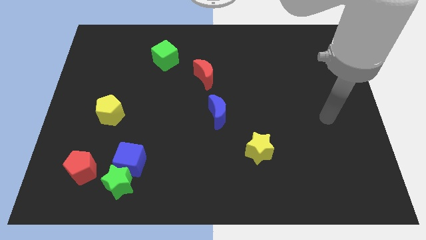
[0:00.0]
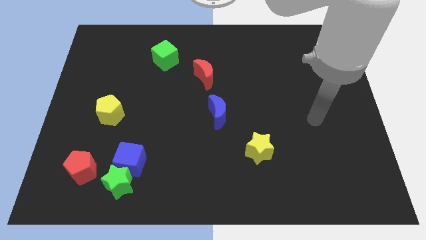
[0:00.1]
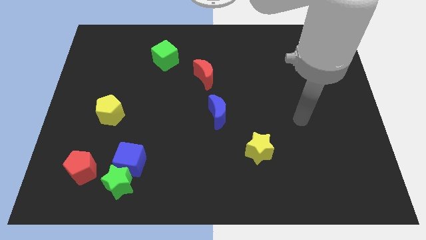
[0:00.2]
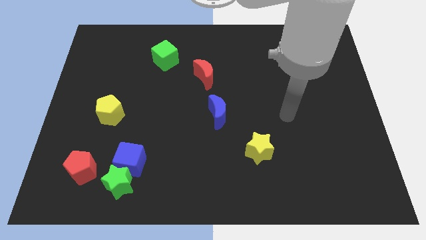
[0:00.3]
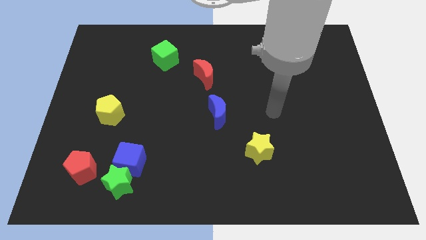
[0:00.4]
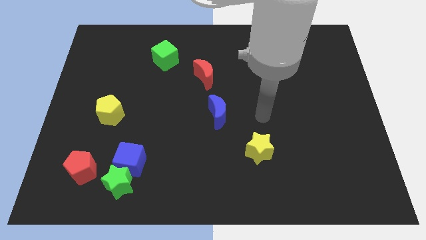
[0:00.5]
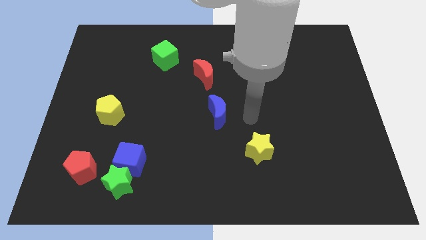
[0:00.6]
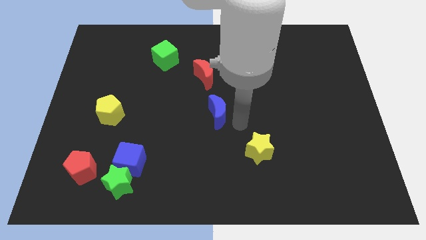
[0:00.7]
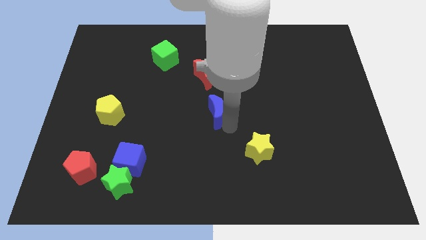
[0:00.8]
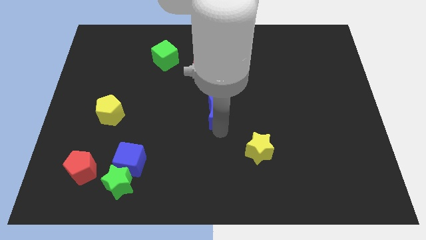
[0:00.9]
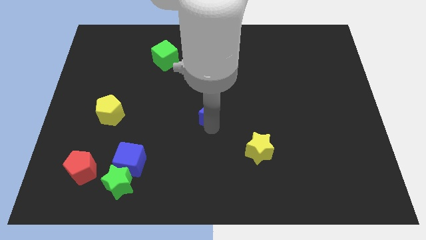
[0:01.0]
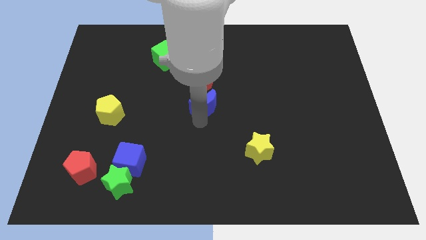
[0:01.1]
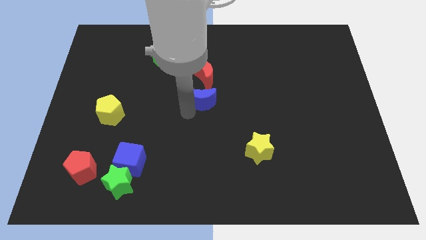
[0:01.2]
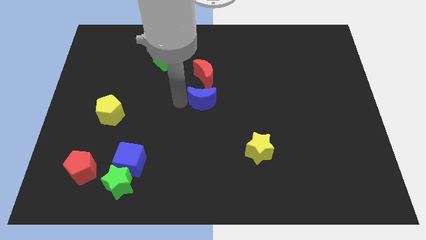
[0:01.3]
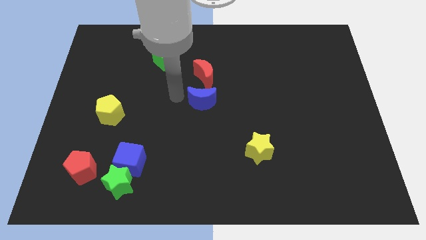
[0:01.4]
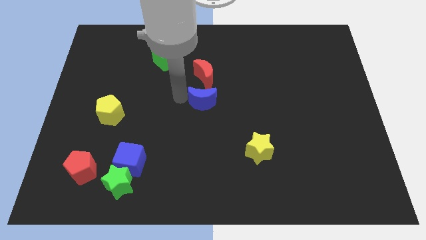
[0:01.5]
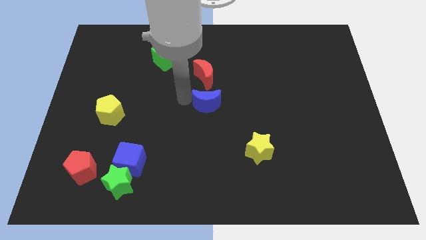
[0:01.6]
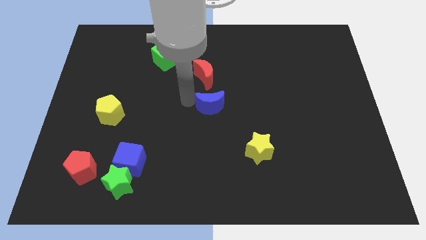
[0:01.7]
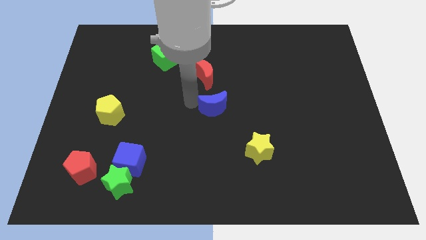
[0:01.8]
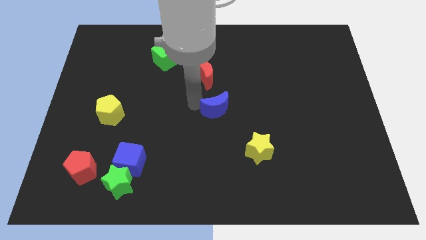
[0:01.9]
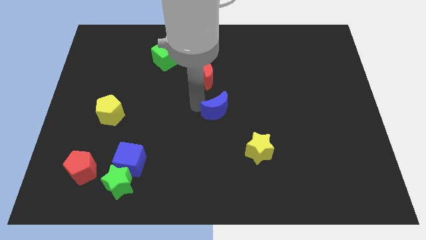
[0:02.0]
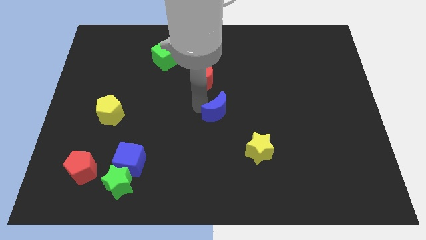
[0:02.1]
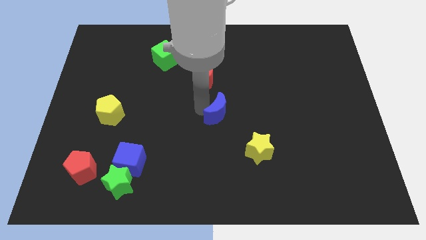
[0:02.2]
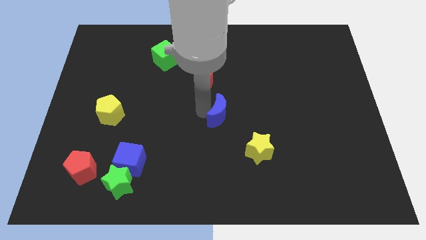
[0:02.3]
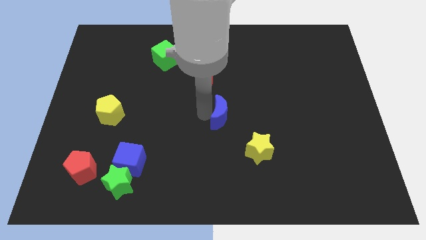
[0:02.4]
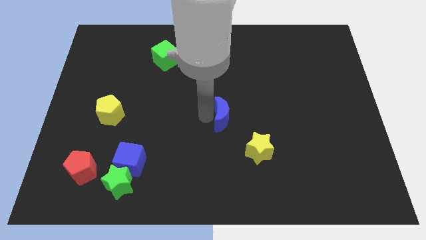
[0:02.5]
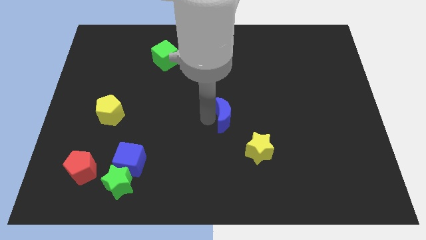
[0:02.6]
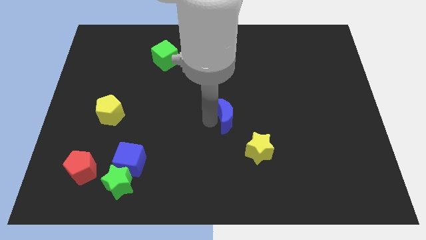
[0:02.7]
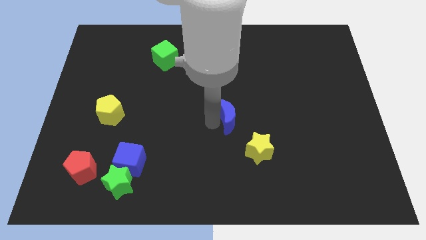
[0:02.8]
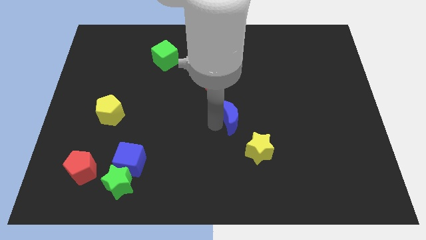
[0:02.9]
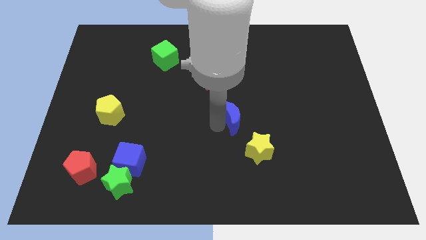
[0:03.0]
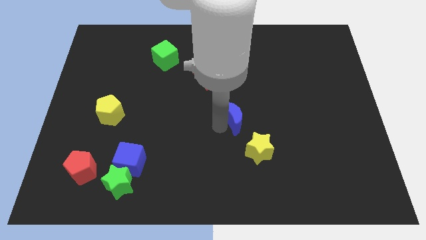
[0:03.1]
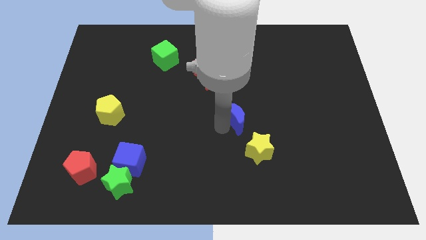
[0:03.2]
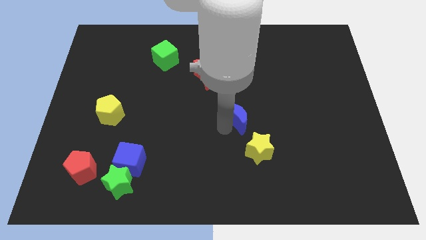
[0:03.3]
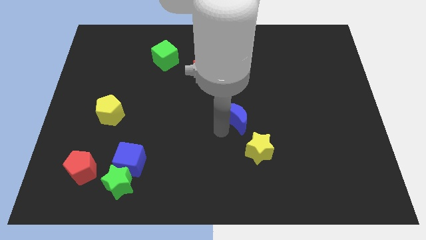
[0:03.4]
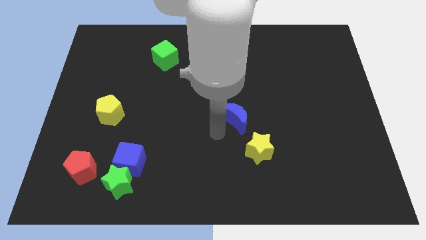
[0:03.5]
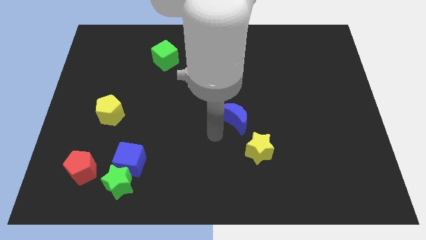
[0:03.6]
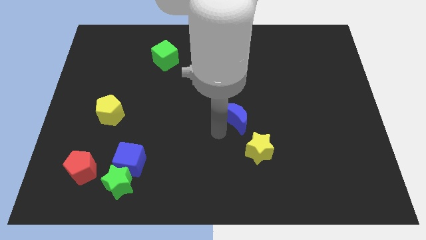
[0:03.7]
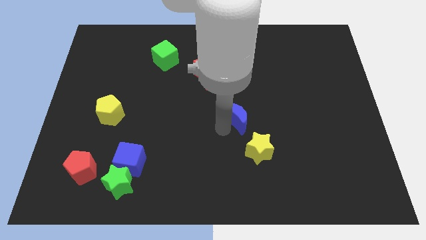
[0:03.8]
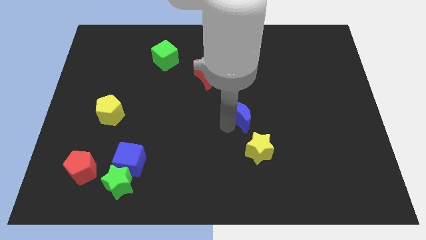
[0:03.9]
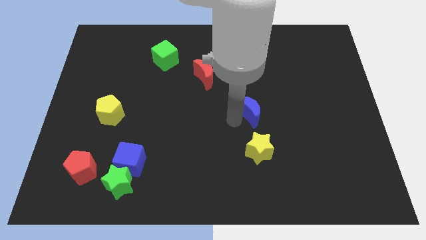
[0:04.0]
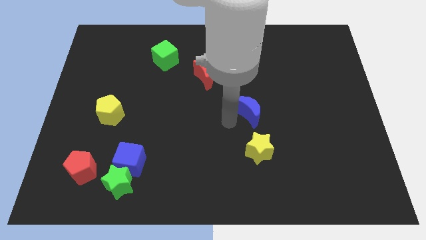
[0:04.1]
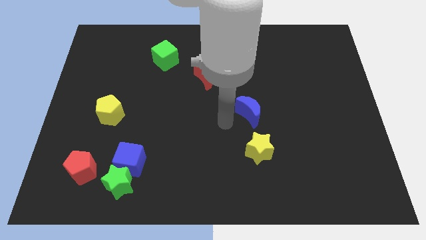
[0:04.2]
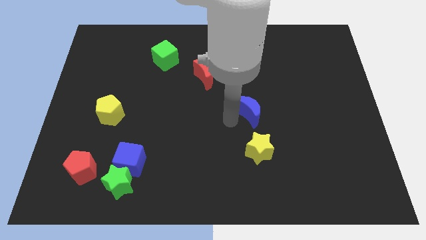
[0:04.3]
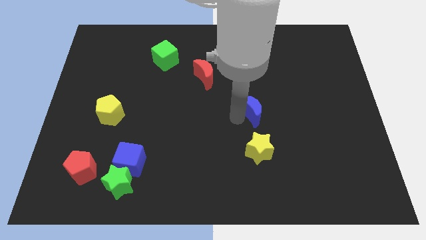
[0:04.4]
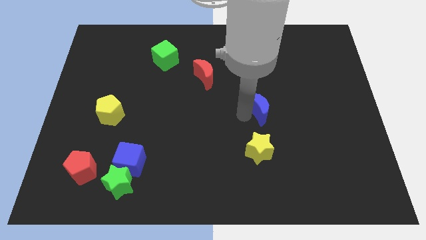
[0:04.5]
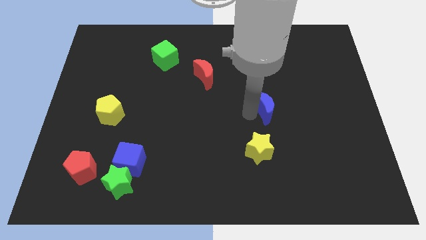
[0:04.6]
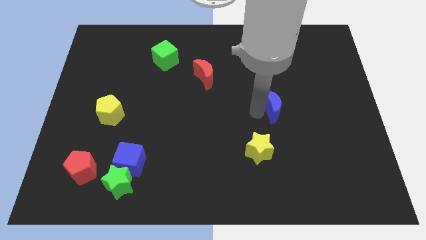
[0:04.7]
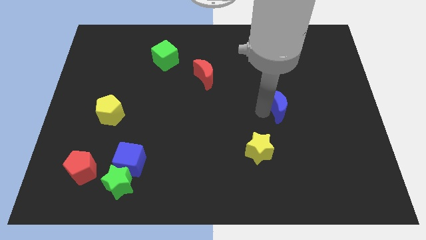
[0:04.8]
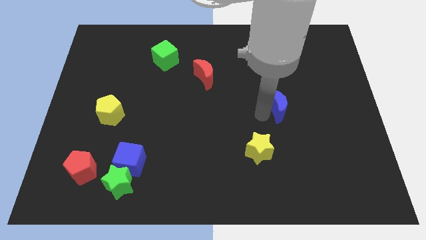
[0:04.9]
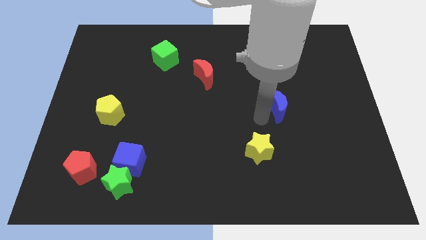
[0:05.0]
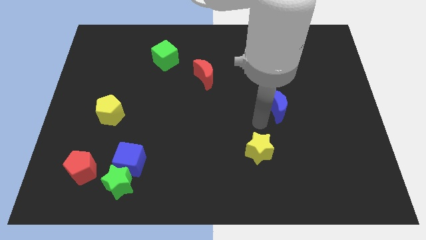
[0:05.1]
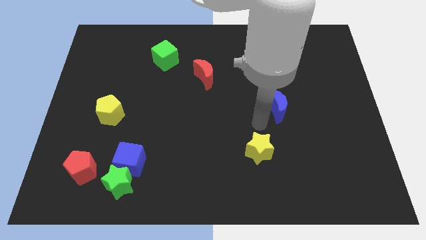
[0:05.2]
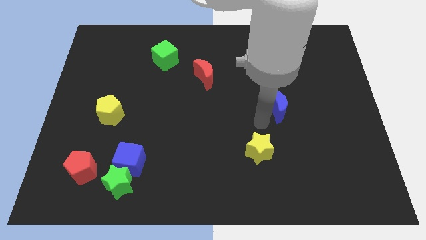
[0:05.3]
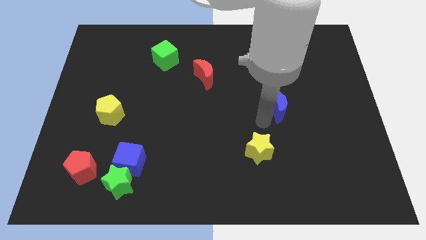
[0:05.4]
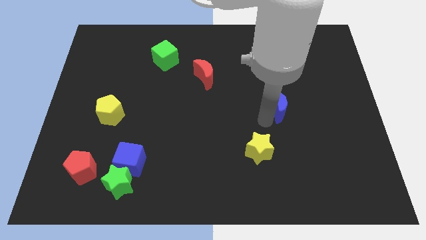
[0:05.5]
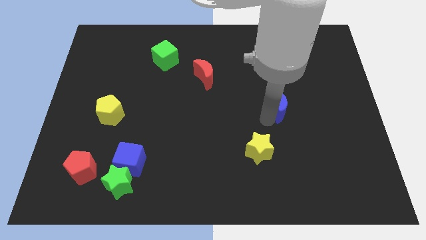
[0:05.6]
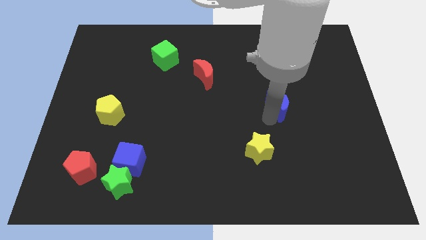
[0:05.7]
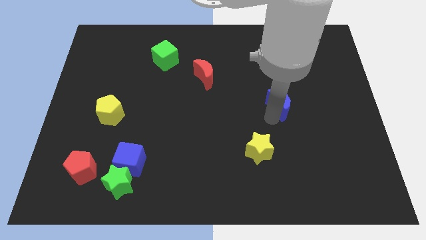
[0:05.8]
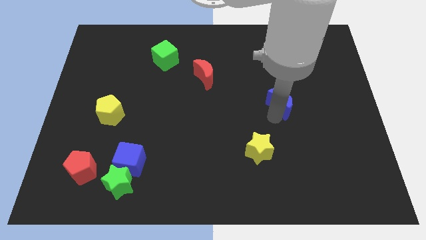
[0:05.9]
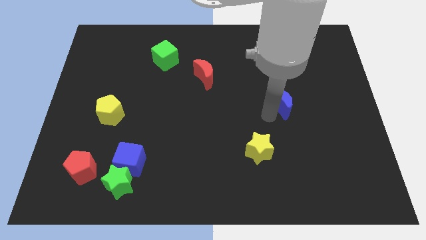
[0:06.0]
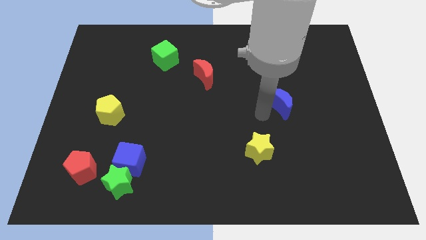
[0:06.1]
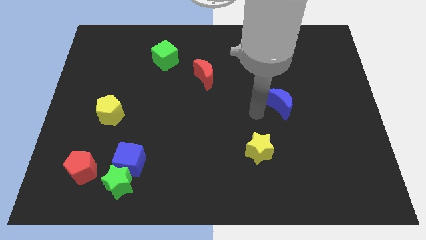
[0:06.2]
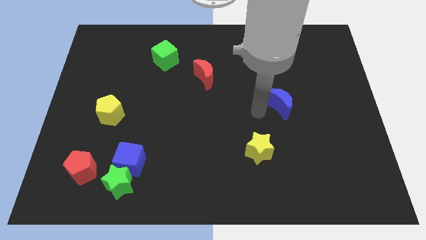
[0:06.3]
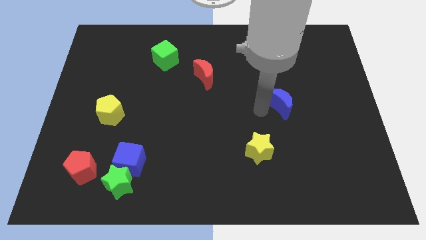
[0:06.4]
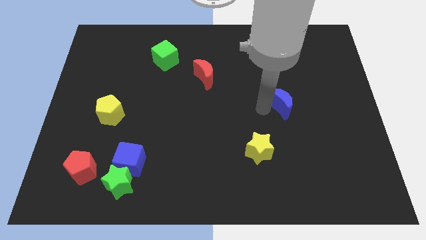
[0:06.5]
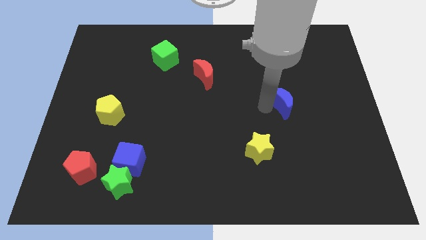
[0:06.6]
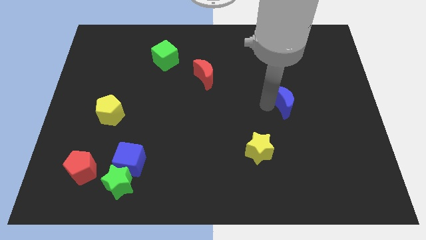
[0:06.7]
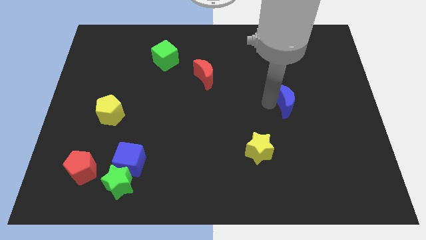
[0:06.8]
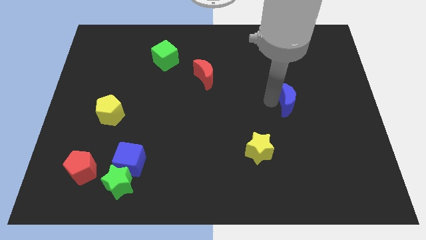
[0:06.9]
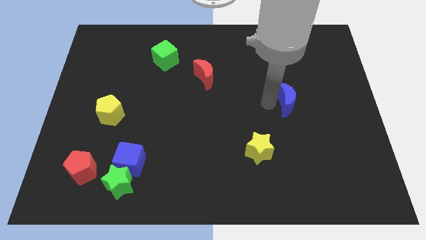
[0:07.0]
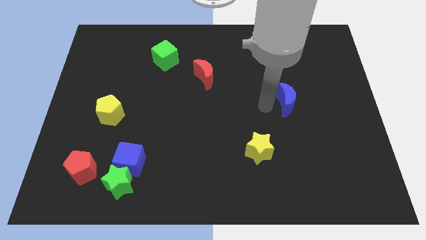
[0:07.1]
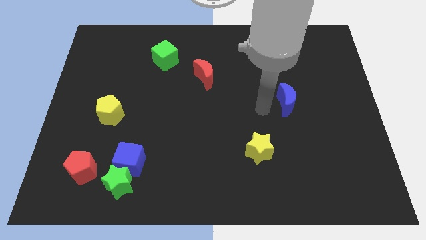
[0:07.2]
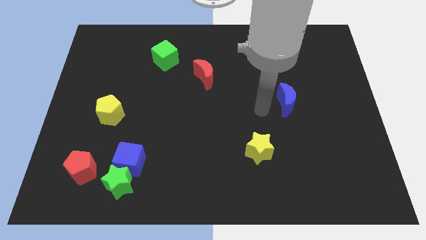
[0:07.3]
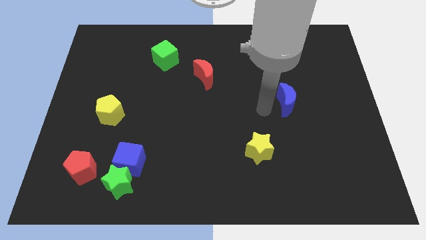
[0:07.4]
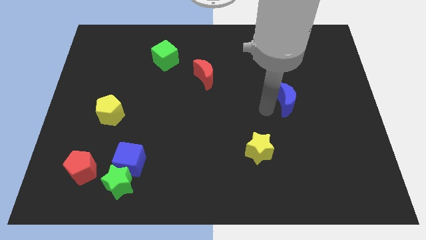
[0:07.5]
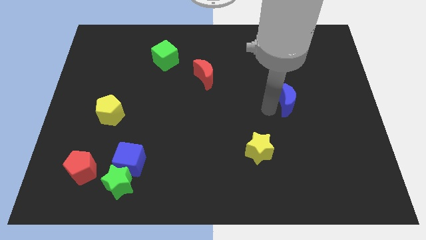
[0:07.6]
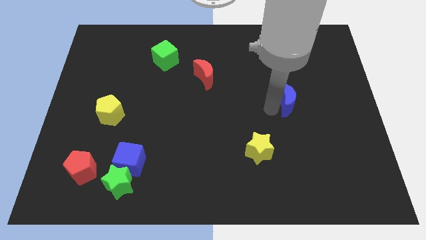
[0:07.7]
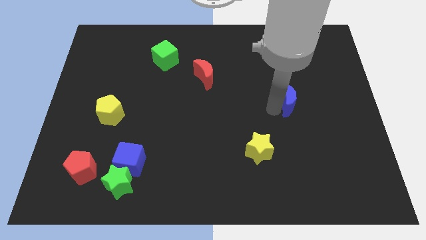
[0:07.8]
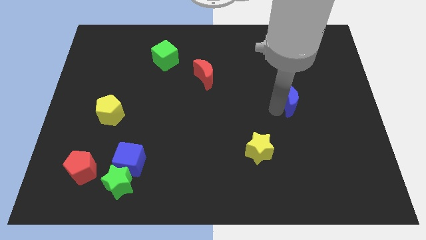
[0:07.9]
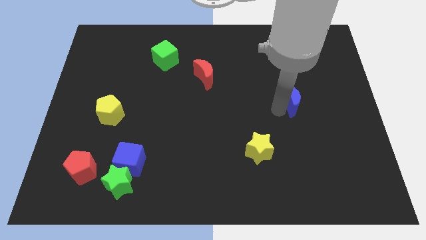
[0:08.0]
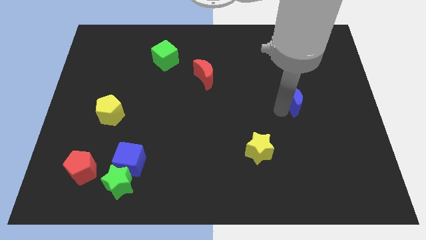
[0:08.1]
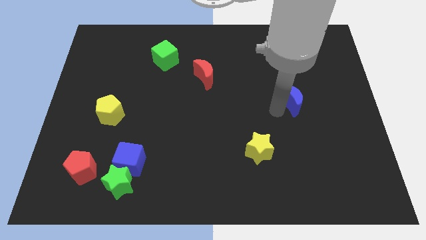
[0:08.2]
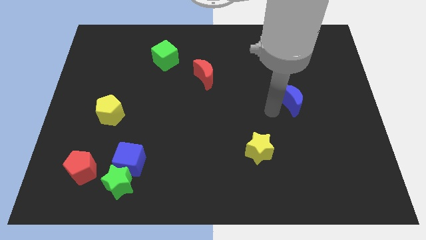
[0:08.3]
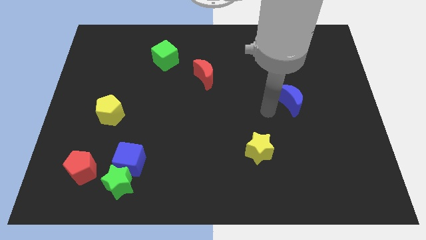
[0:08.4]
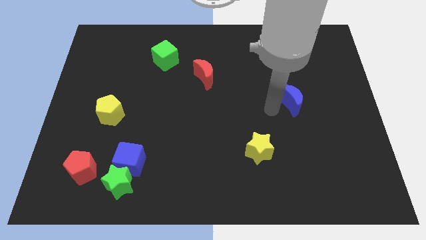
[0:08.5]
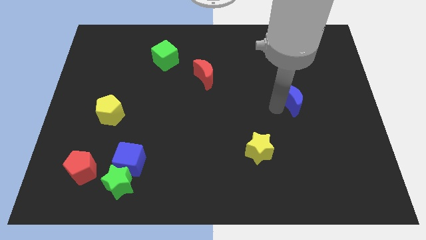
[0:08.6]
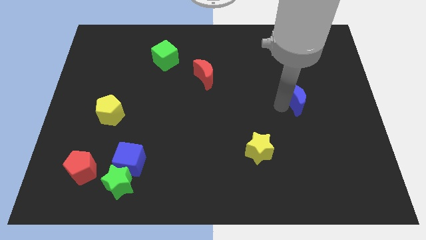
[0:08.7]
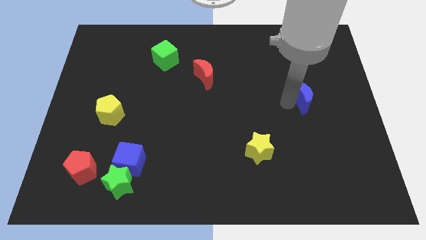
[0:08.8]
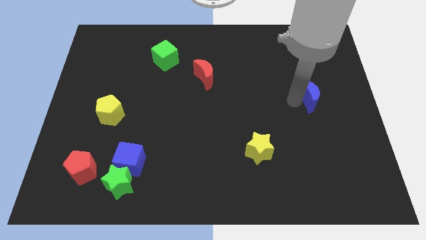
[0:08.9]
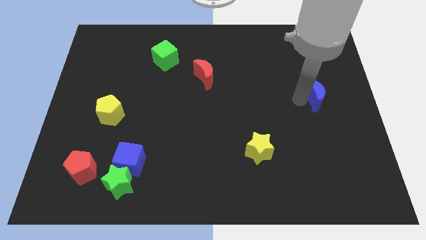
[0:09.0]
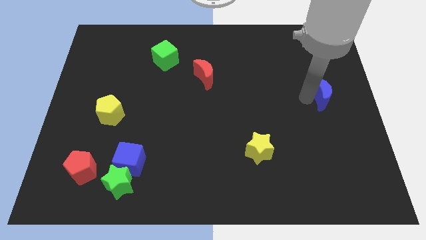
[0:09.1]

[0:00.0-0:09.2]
slide the blue moon to the center right
